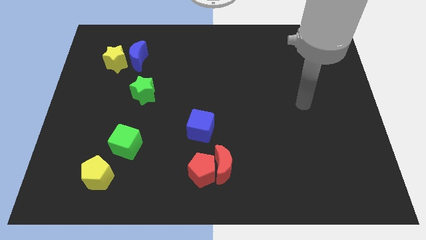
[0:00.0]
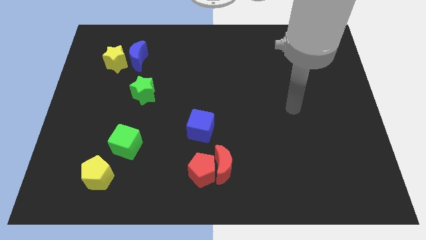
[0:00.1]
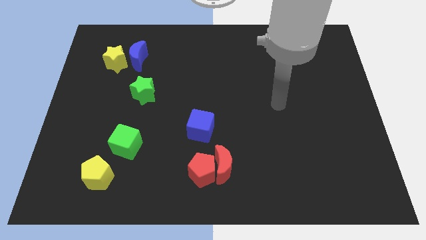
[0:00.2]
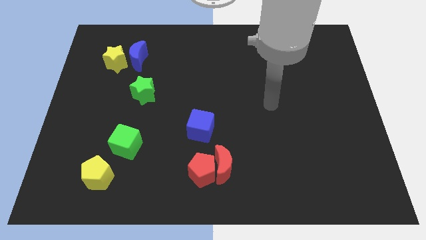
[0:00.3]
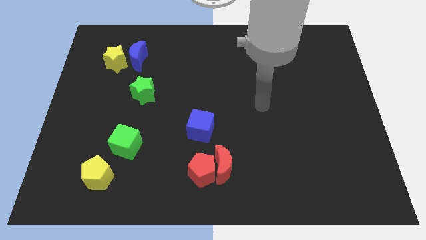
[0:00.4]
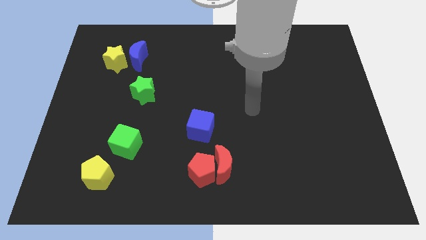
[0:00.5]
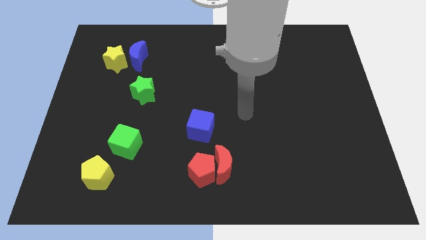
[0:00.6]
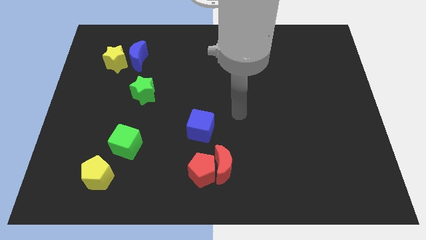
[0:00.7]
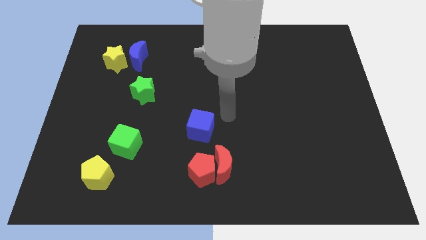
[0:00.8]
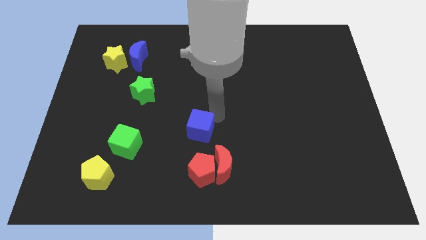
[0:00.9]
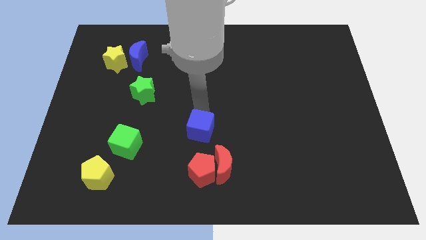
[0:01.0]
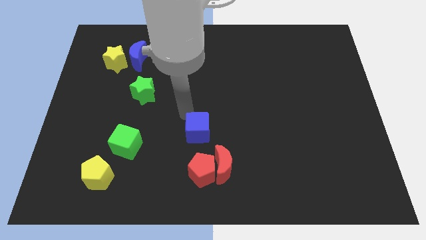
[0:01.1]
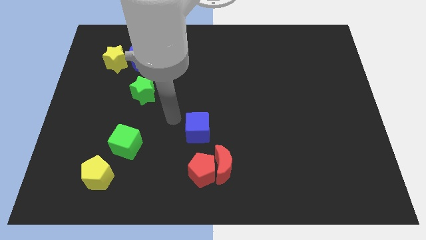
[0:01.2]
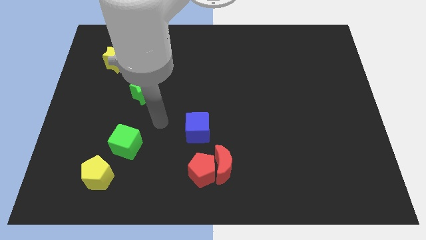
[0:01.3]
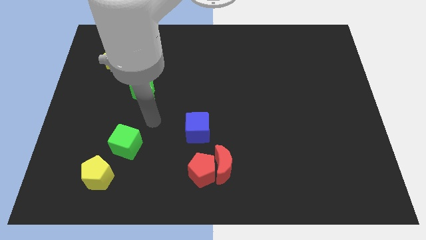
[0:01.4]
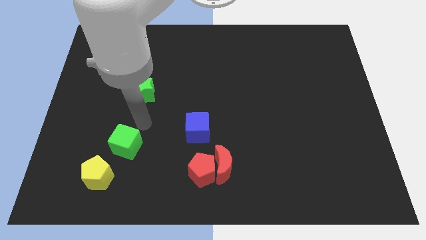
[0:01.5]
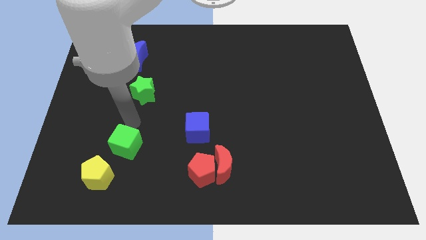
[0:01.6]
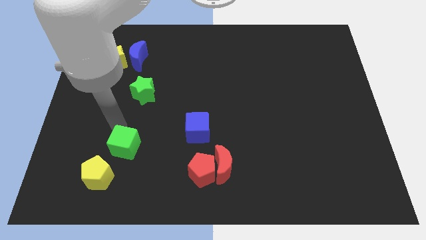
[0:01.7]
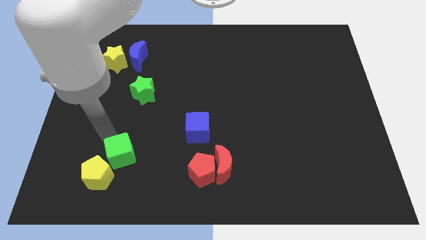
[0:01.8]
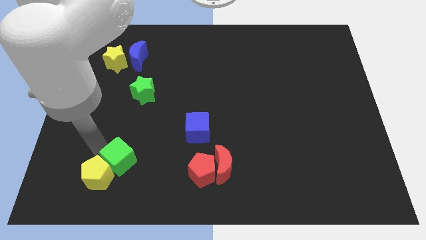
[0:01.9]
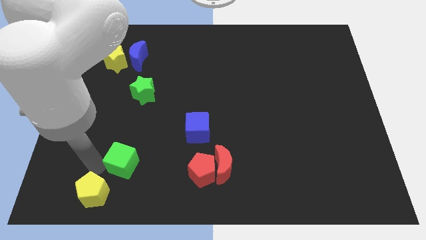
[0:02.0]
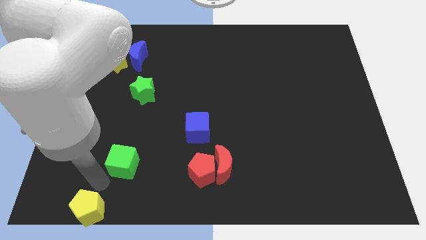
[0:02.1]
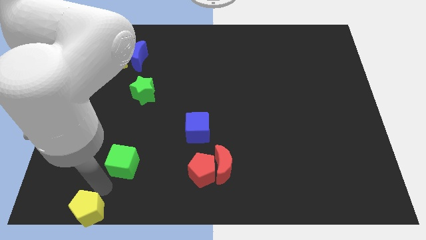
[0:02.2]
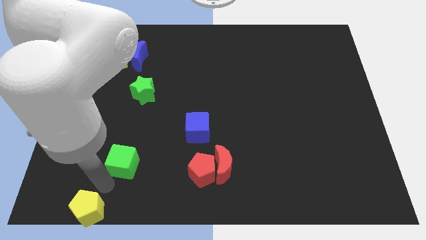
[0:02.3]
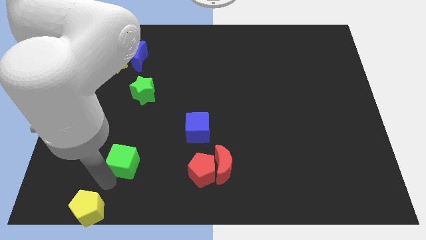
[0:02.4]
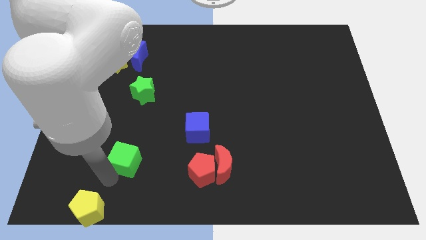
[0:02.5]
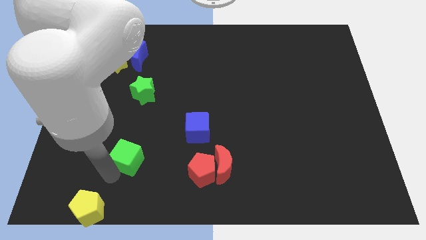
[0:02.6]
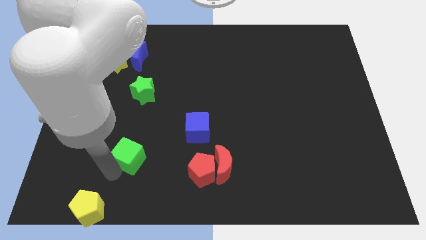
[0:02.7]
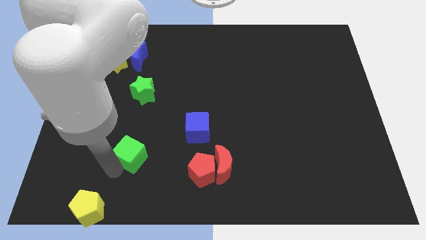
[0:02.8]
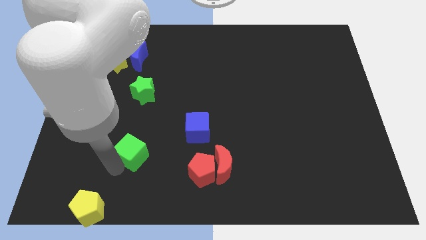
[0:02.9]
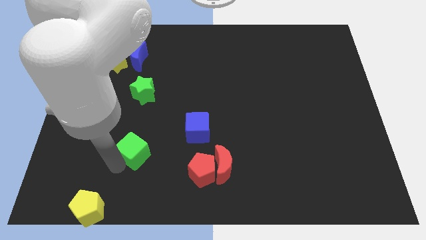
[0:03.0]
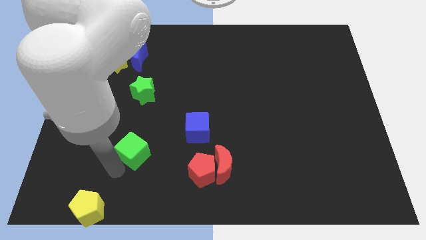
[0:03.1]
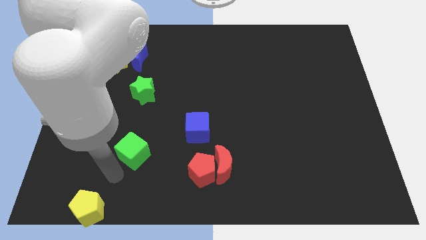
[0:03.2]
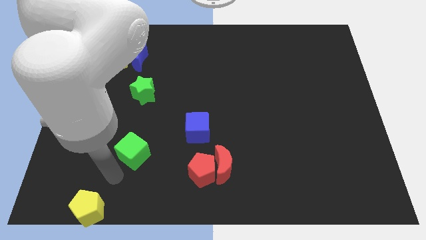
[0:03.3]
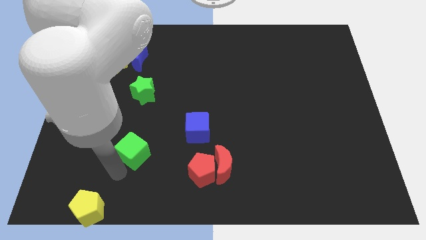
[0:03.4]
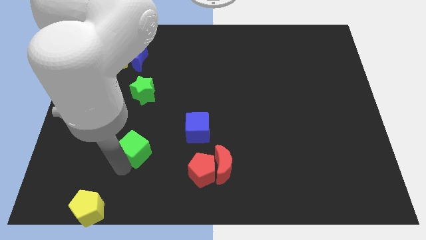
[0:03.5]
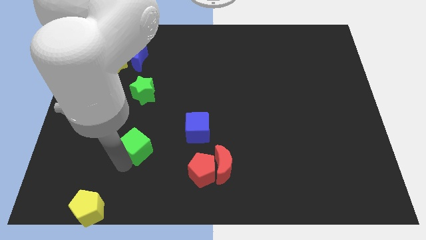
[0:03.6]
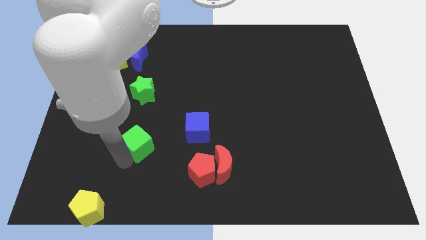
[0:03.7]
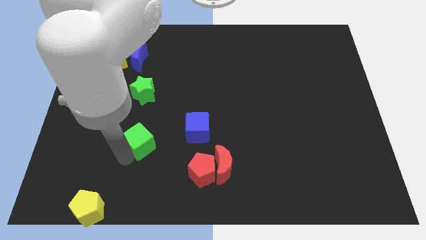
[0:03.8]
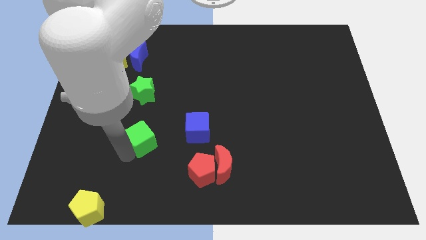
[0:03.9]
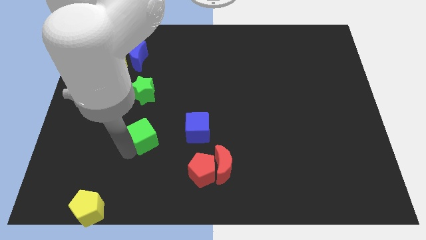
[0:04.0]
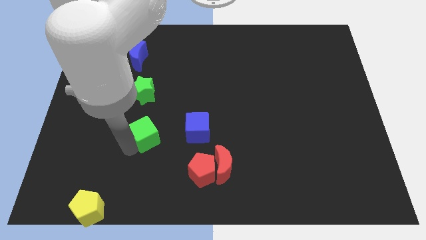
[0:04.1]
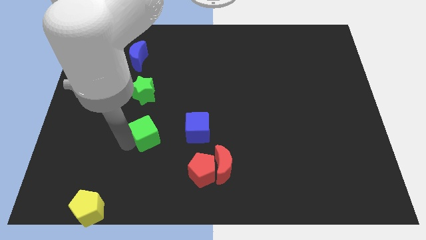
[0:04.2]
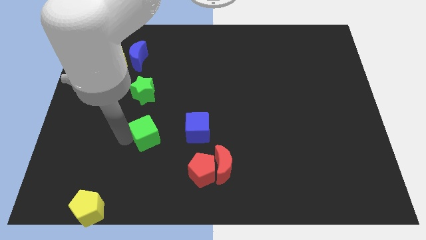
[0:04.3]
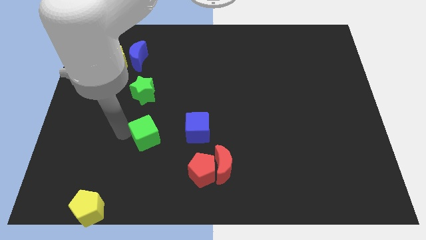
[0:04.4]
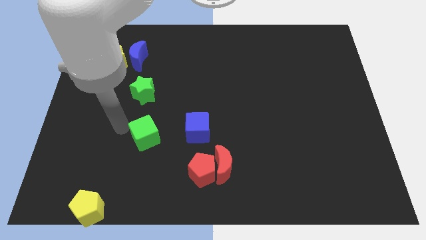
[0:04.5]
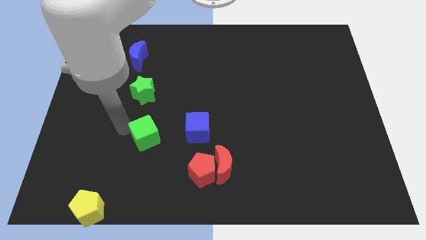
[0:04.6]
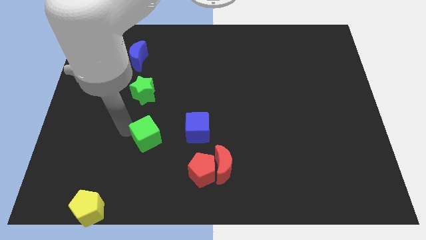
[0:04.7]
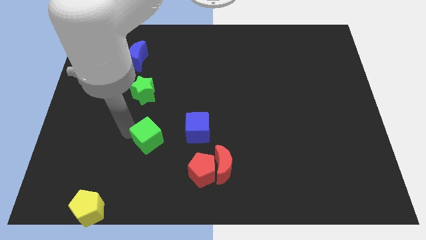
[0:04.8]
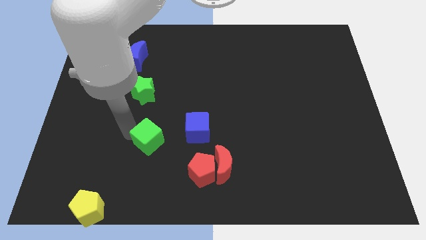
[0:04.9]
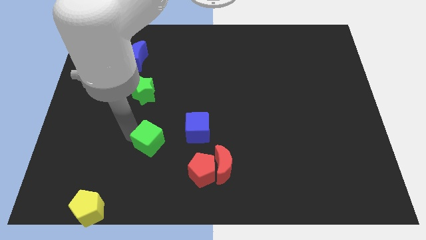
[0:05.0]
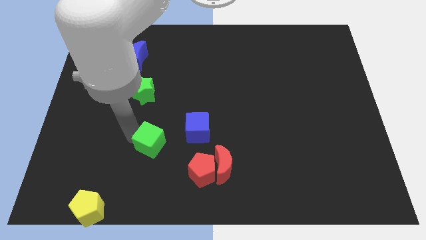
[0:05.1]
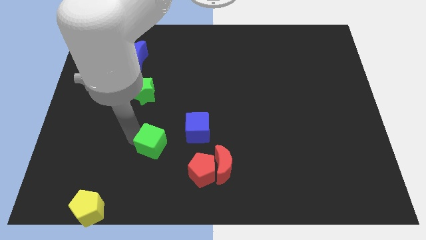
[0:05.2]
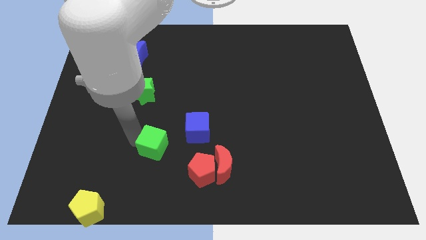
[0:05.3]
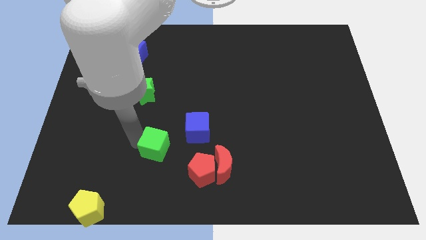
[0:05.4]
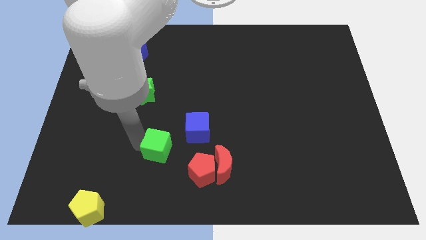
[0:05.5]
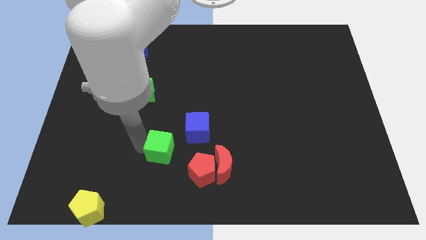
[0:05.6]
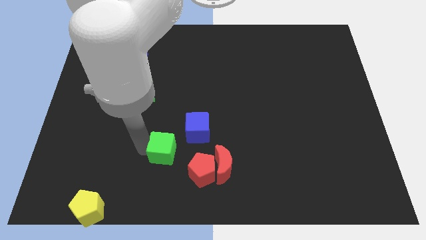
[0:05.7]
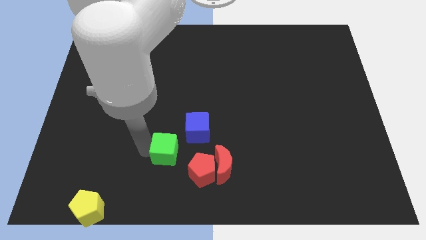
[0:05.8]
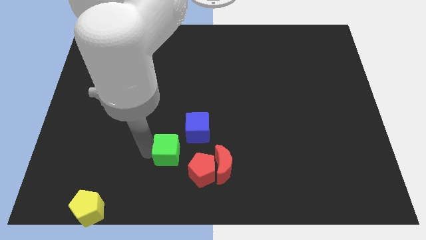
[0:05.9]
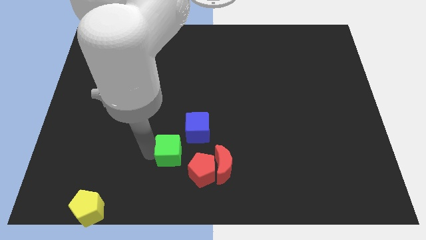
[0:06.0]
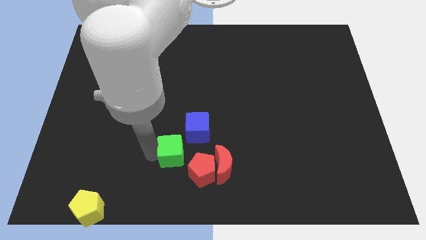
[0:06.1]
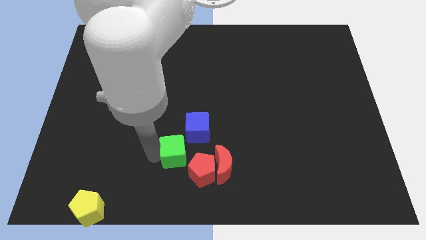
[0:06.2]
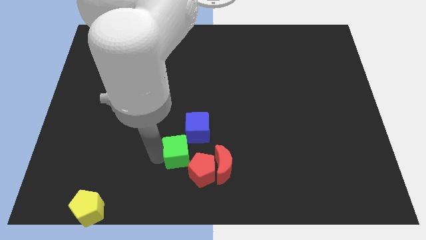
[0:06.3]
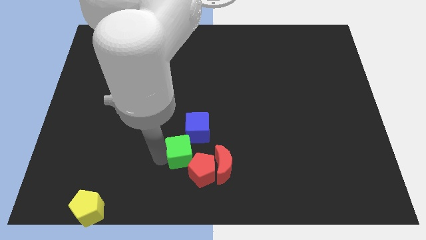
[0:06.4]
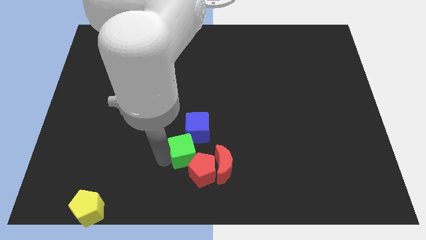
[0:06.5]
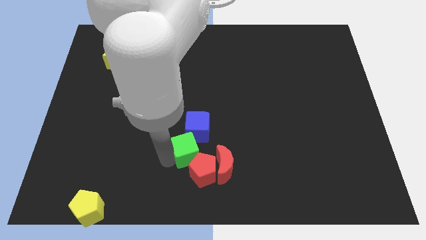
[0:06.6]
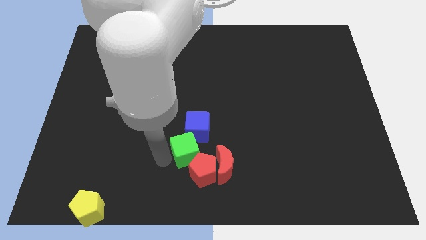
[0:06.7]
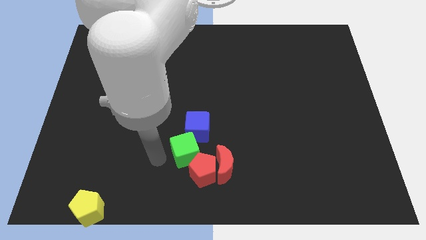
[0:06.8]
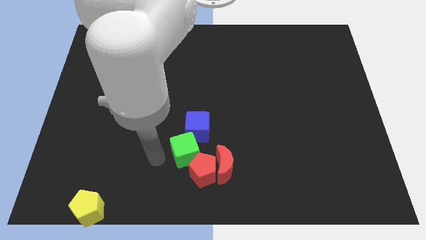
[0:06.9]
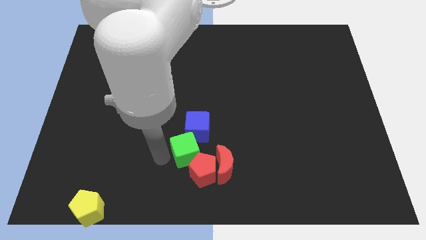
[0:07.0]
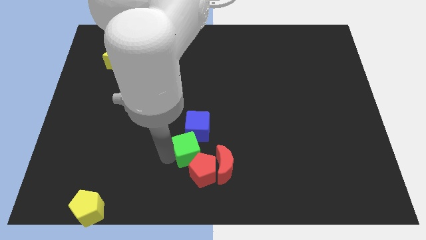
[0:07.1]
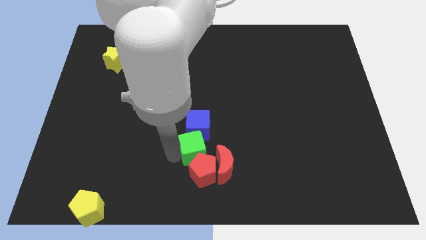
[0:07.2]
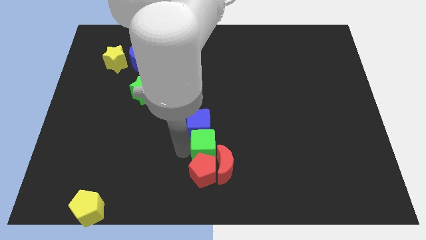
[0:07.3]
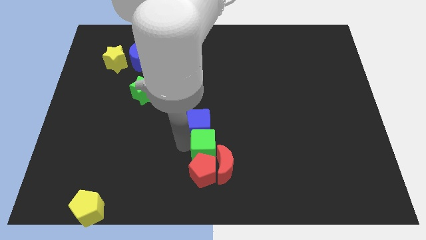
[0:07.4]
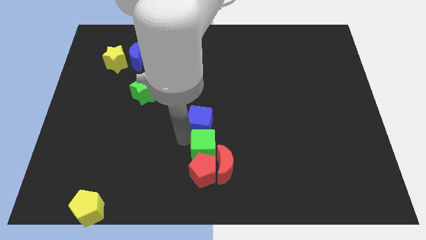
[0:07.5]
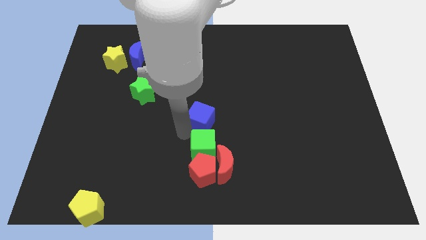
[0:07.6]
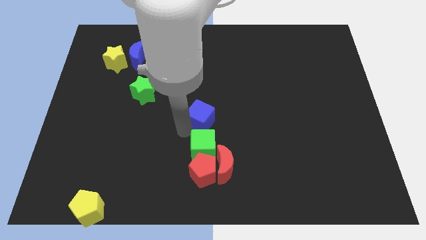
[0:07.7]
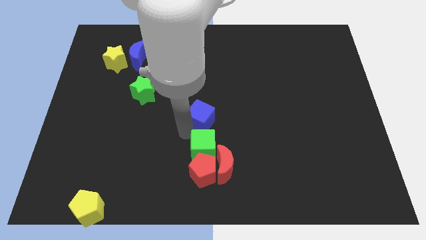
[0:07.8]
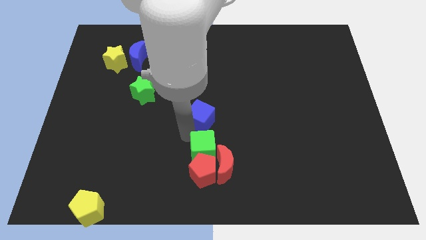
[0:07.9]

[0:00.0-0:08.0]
move the green cube towards the red moon
